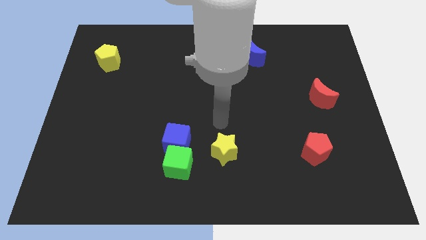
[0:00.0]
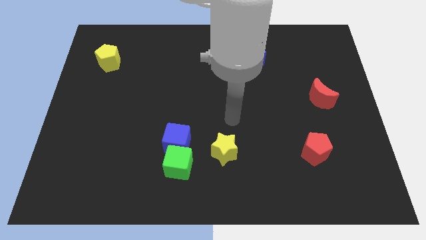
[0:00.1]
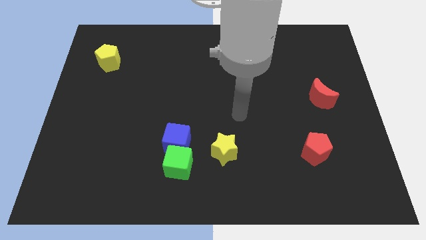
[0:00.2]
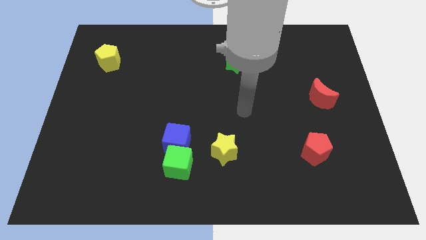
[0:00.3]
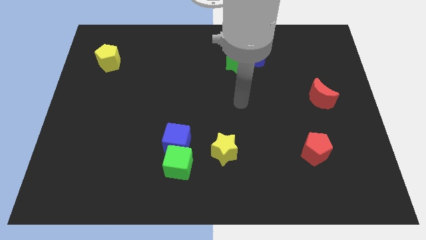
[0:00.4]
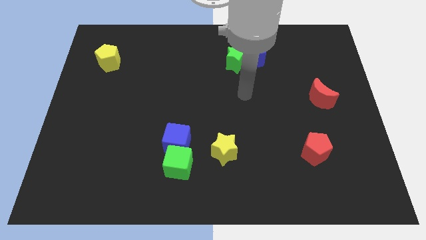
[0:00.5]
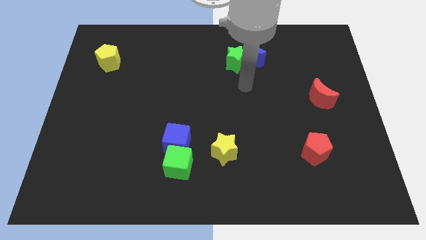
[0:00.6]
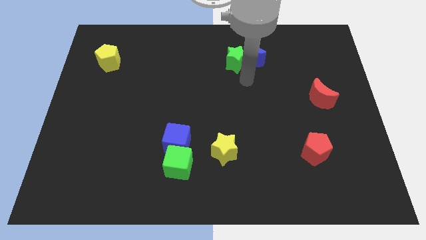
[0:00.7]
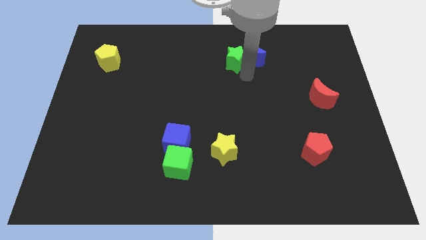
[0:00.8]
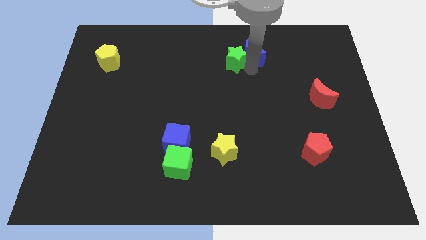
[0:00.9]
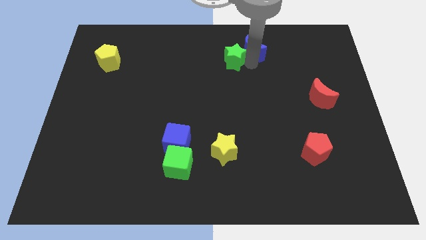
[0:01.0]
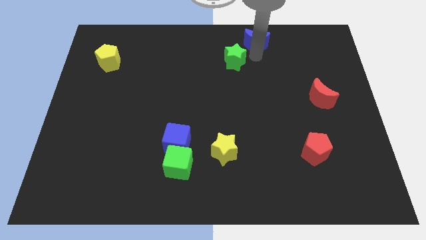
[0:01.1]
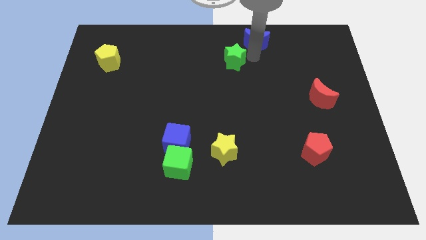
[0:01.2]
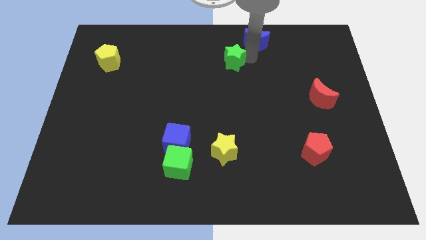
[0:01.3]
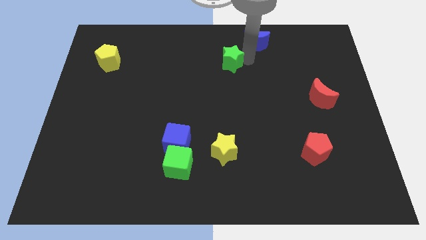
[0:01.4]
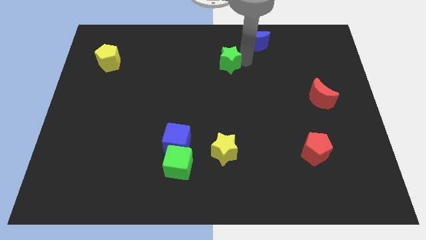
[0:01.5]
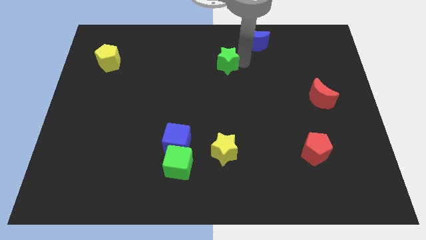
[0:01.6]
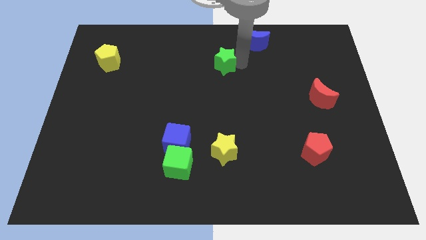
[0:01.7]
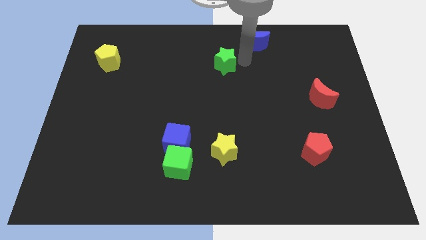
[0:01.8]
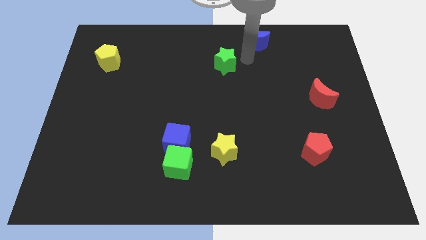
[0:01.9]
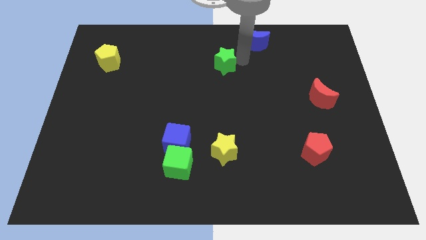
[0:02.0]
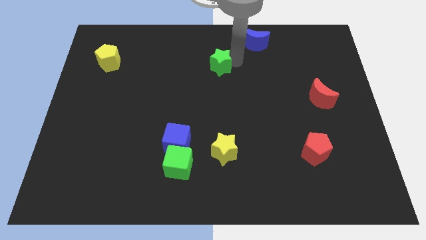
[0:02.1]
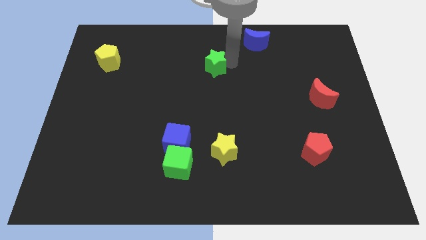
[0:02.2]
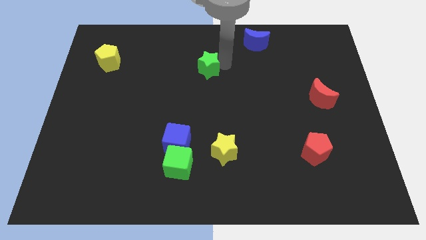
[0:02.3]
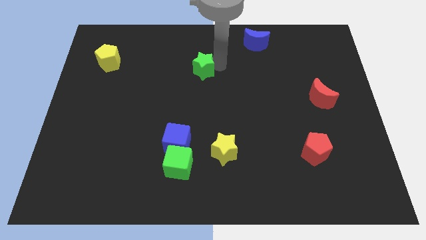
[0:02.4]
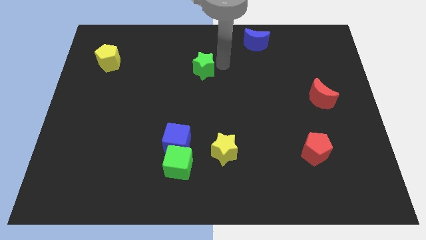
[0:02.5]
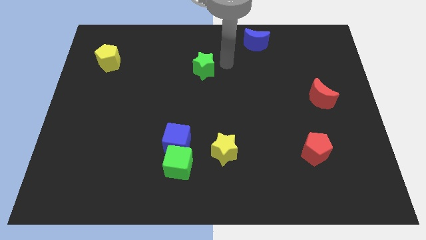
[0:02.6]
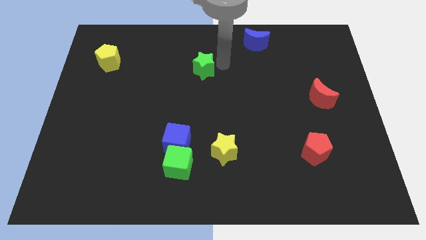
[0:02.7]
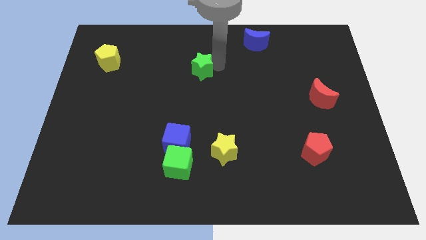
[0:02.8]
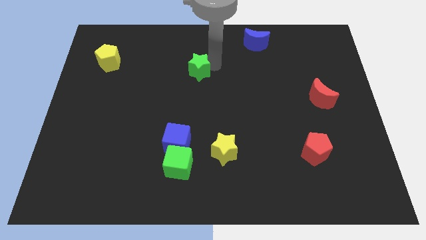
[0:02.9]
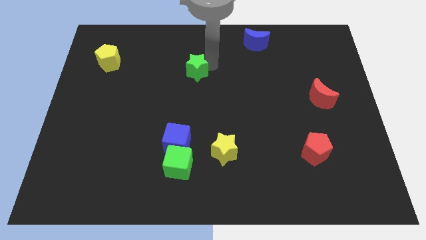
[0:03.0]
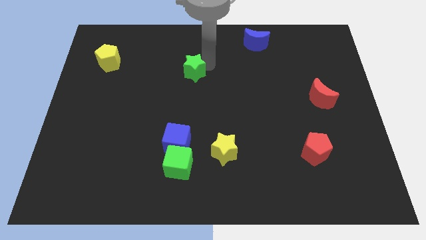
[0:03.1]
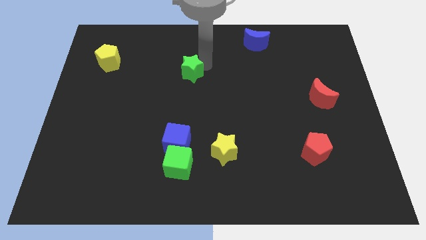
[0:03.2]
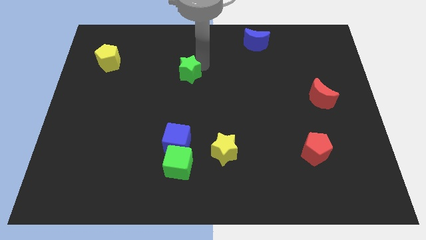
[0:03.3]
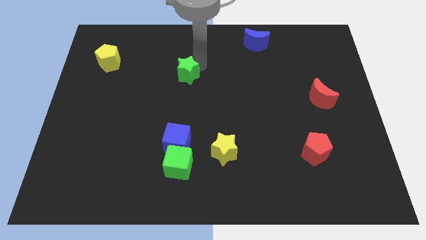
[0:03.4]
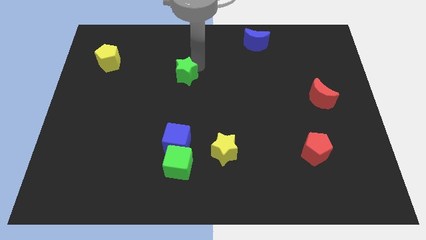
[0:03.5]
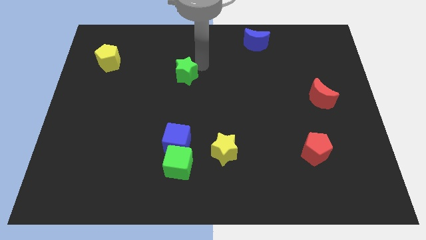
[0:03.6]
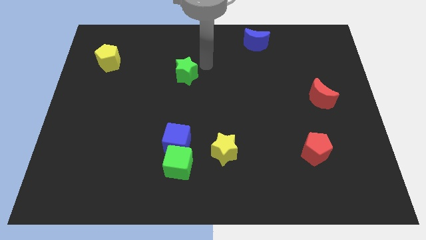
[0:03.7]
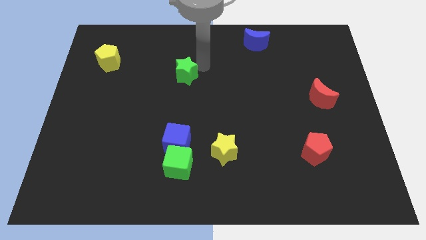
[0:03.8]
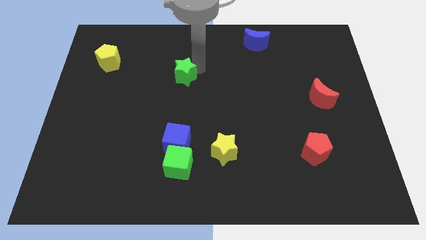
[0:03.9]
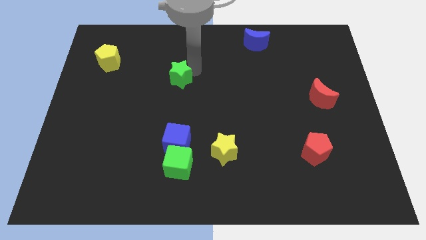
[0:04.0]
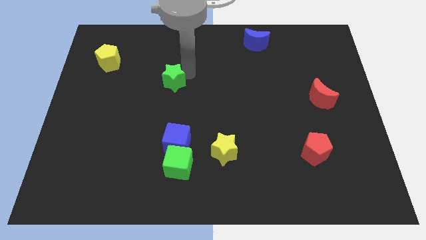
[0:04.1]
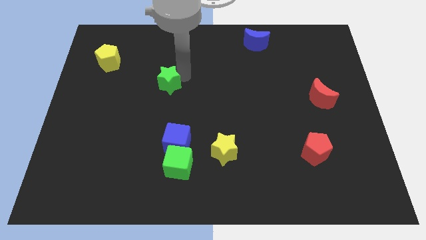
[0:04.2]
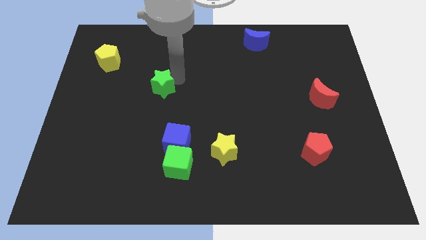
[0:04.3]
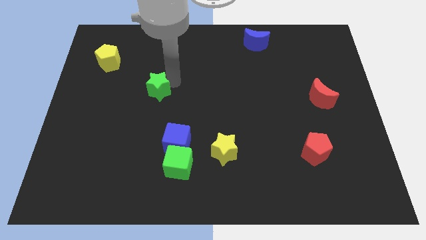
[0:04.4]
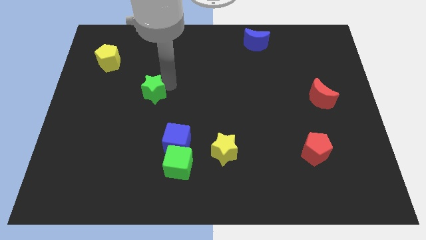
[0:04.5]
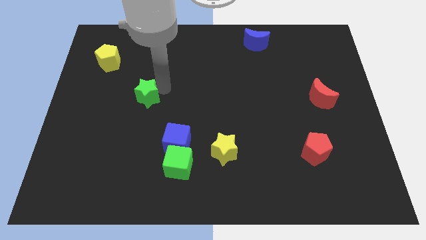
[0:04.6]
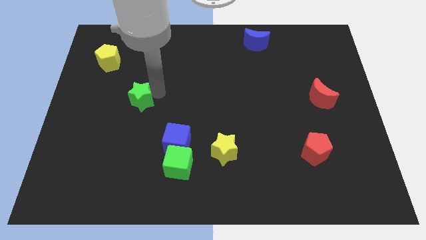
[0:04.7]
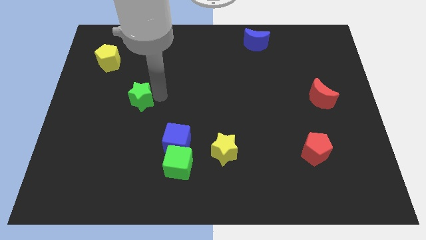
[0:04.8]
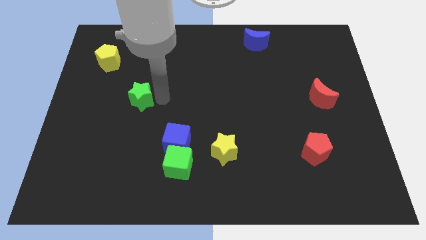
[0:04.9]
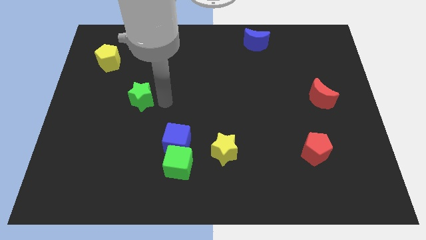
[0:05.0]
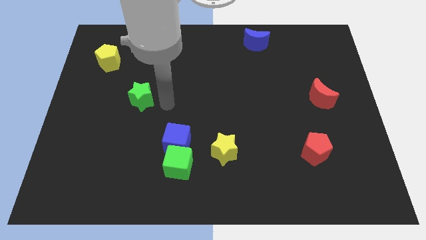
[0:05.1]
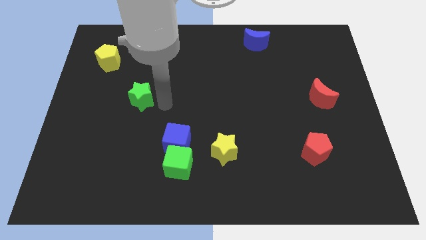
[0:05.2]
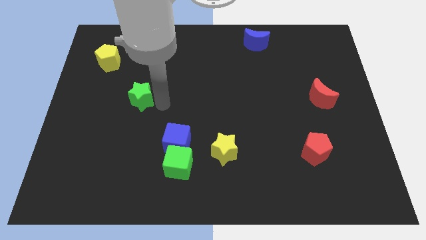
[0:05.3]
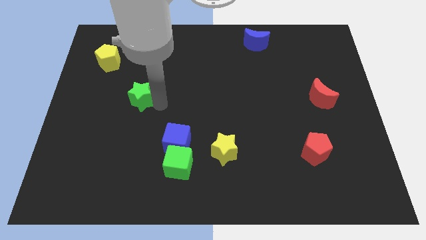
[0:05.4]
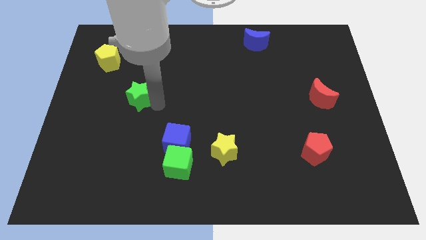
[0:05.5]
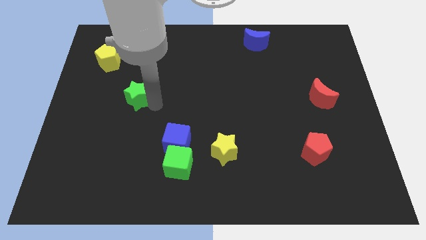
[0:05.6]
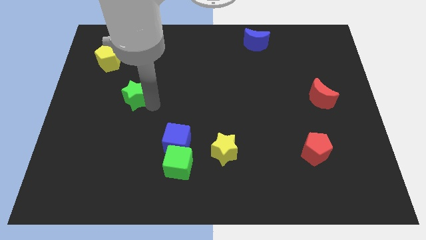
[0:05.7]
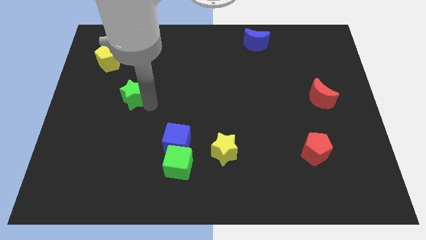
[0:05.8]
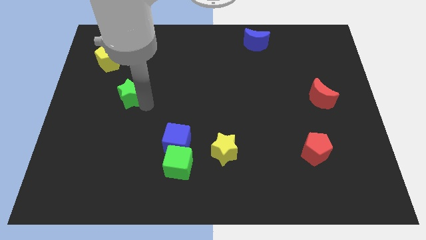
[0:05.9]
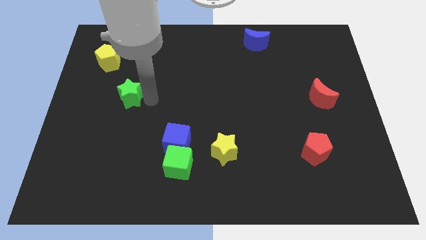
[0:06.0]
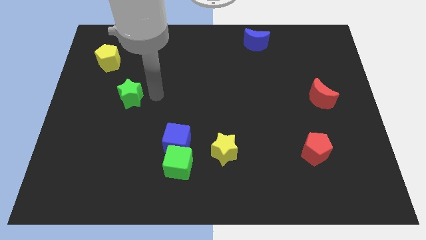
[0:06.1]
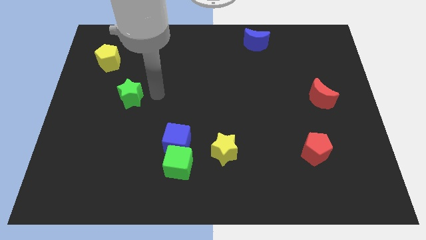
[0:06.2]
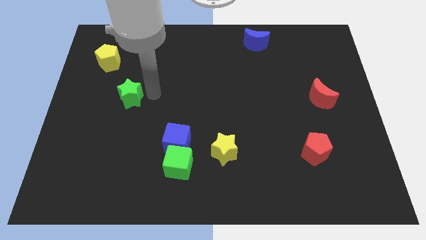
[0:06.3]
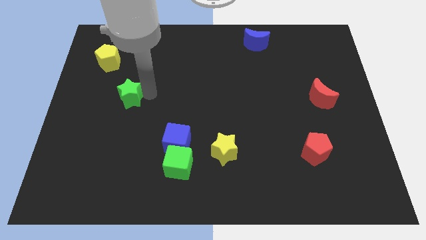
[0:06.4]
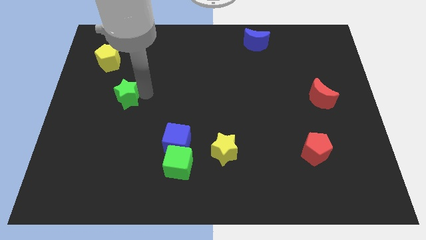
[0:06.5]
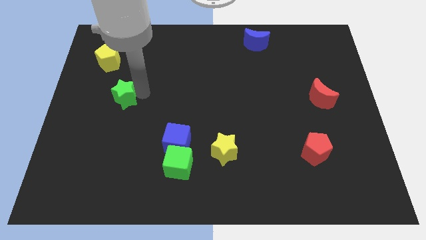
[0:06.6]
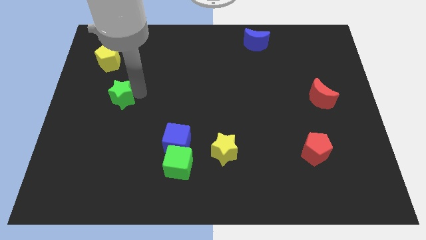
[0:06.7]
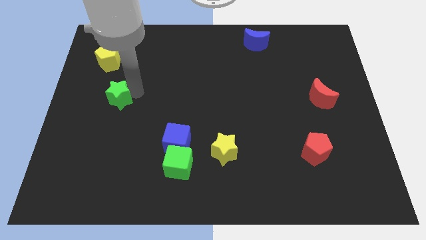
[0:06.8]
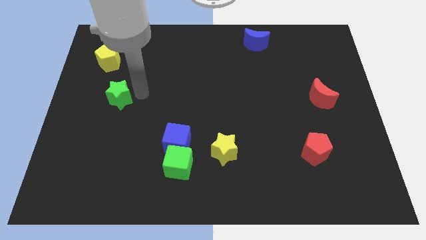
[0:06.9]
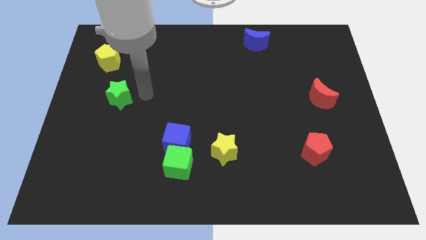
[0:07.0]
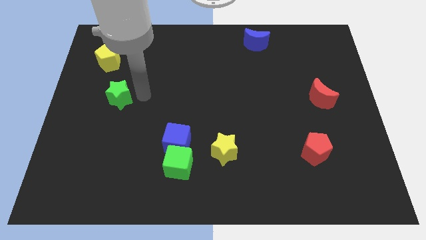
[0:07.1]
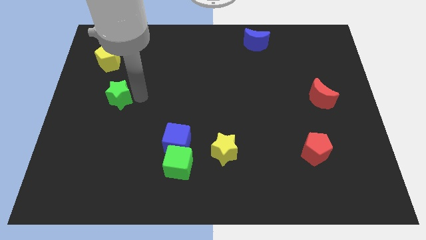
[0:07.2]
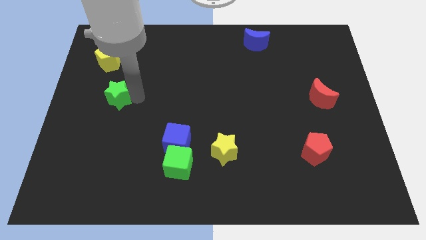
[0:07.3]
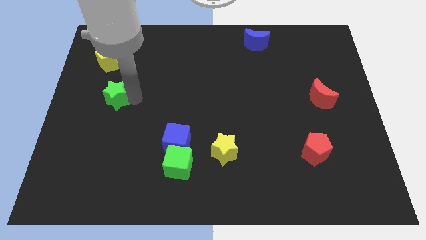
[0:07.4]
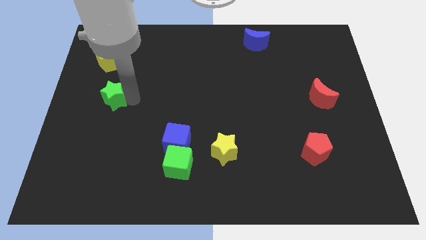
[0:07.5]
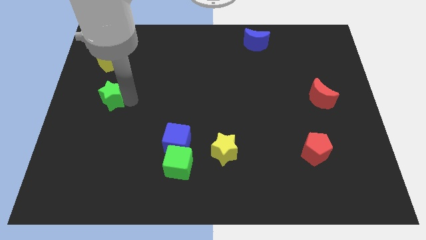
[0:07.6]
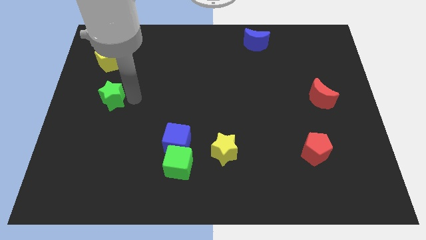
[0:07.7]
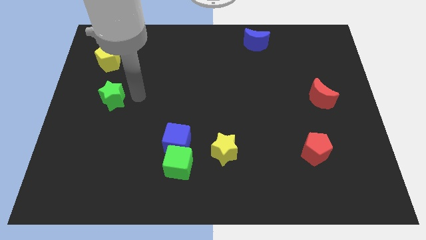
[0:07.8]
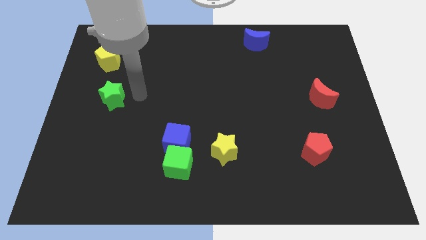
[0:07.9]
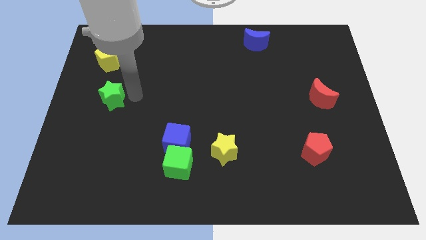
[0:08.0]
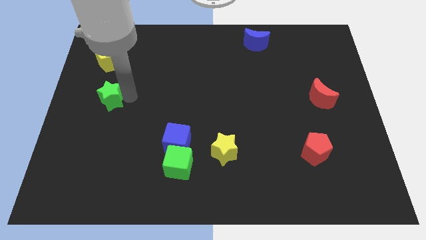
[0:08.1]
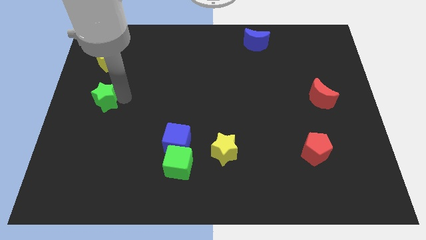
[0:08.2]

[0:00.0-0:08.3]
slide the green star to the left side of the board
